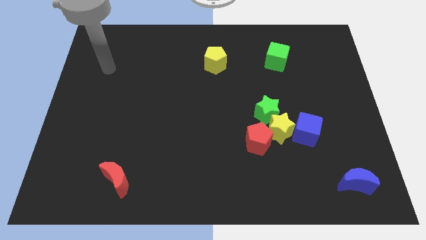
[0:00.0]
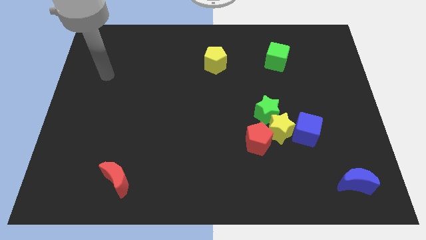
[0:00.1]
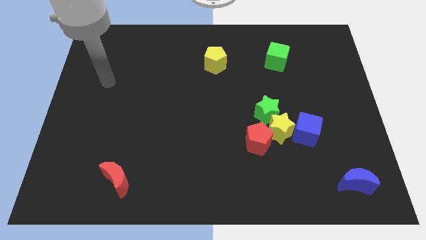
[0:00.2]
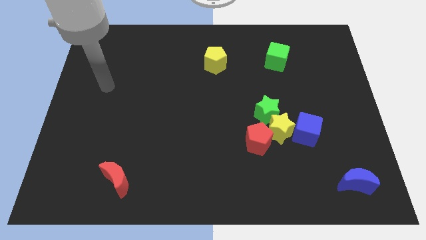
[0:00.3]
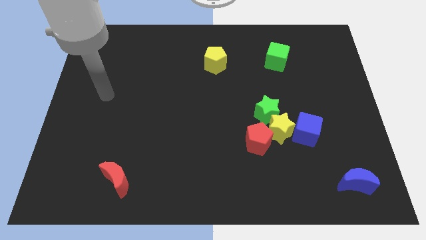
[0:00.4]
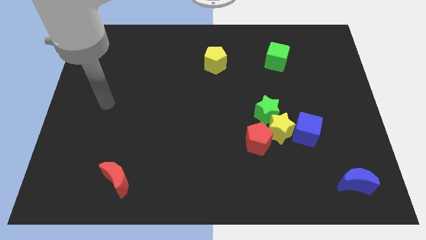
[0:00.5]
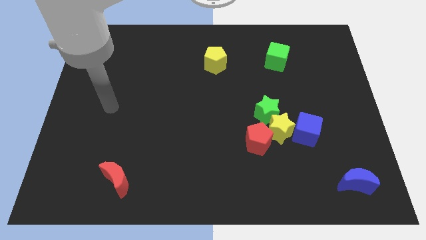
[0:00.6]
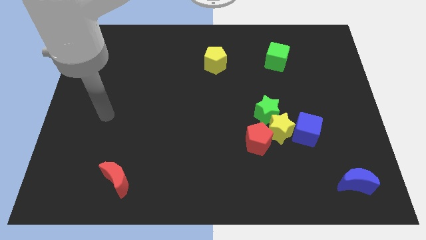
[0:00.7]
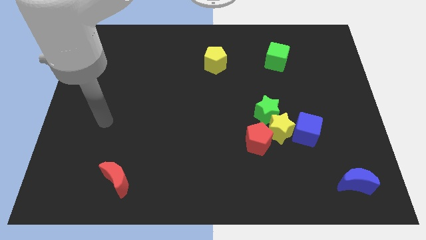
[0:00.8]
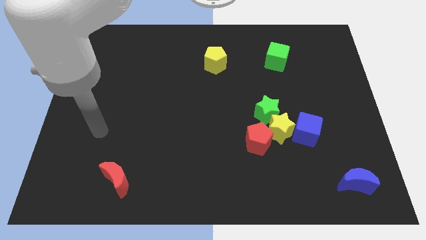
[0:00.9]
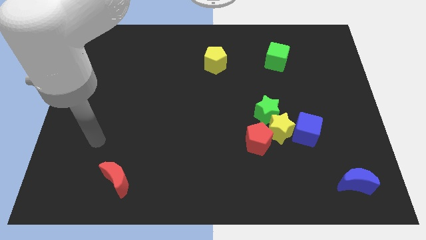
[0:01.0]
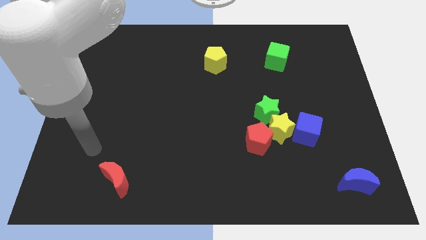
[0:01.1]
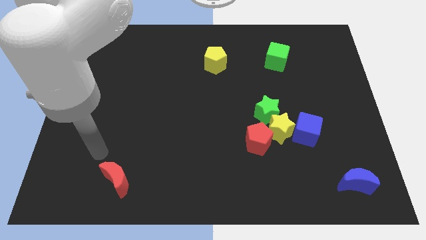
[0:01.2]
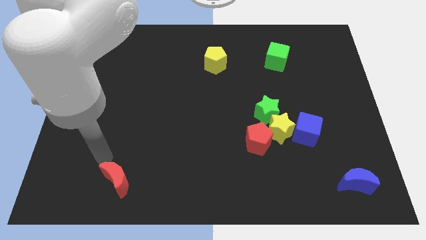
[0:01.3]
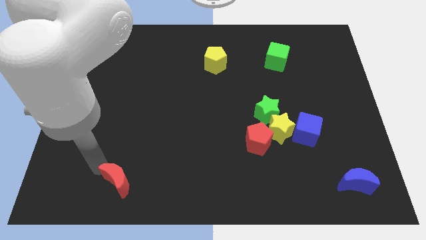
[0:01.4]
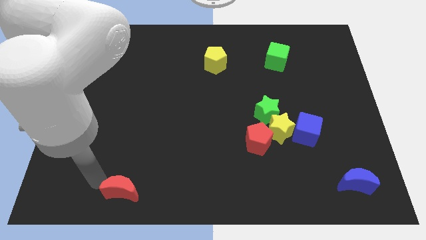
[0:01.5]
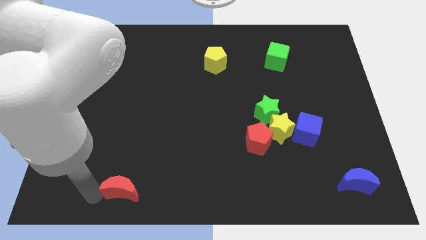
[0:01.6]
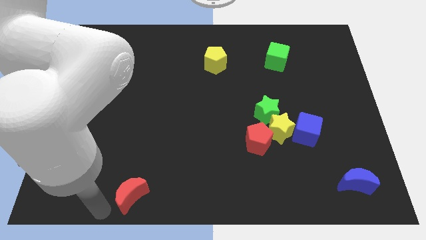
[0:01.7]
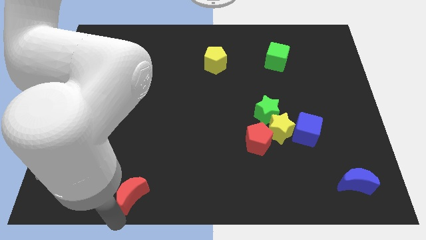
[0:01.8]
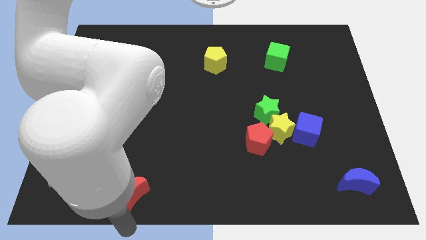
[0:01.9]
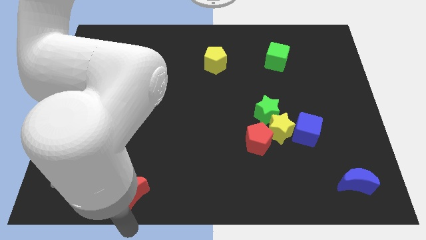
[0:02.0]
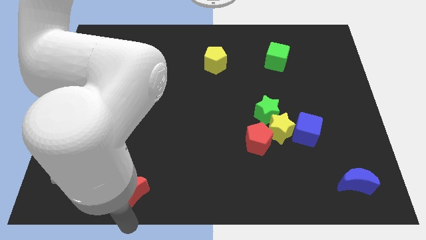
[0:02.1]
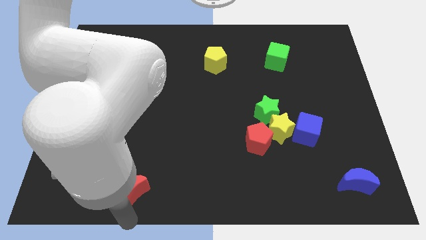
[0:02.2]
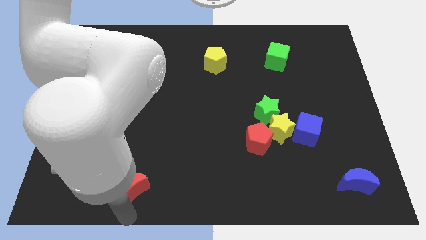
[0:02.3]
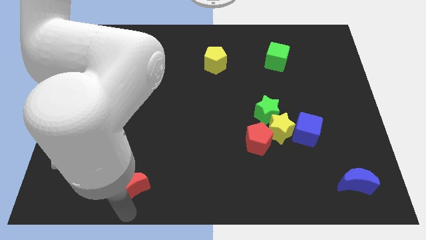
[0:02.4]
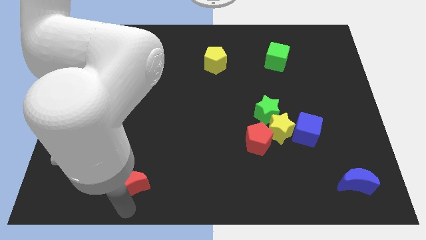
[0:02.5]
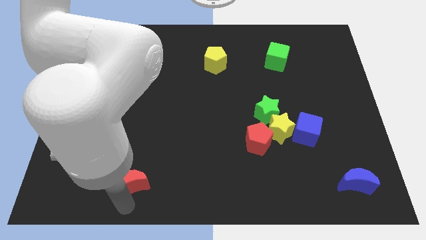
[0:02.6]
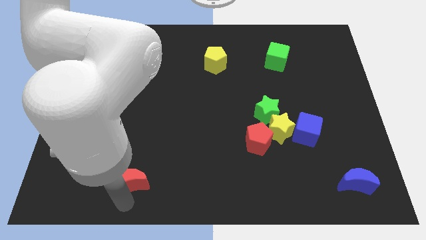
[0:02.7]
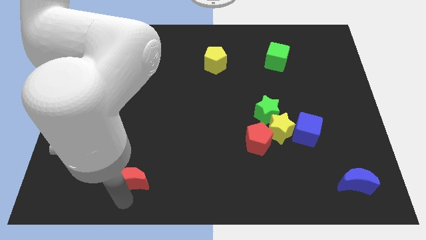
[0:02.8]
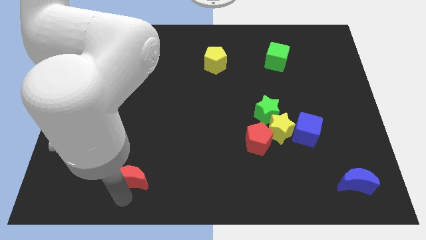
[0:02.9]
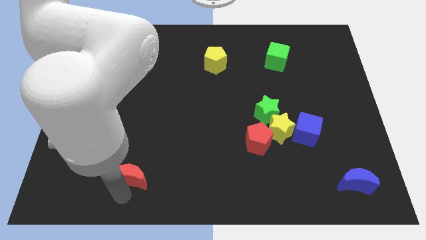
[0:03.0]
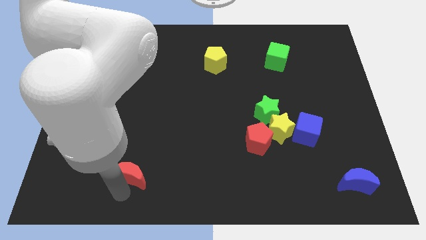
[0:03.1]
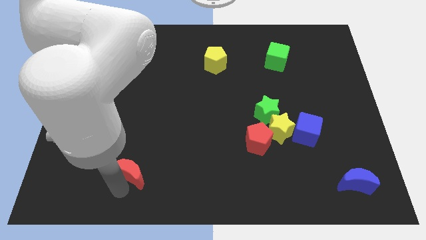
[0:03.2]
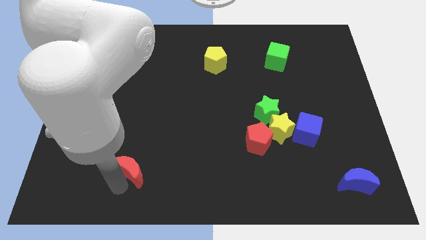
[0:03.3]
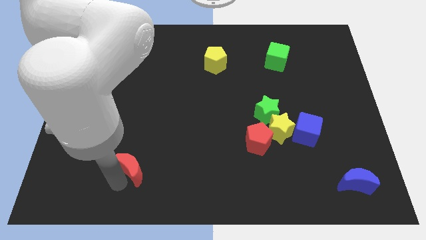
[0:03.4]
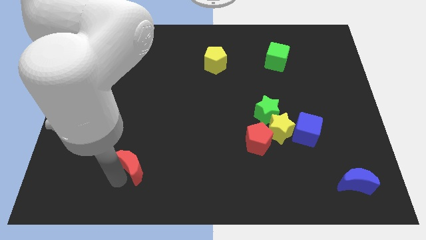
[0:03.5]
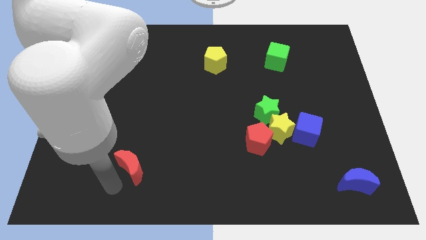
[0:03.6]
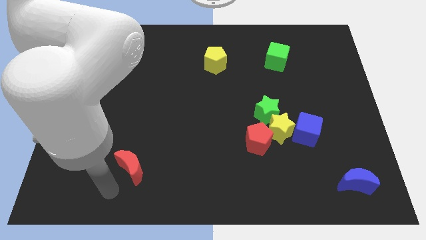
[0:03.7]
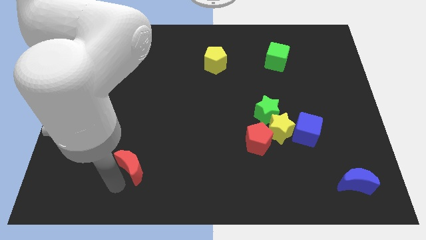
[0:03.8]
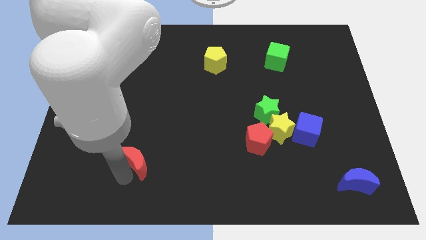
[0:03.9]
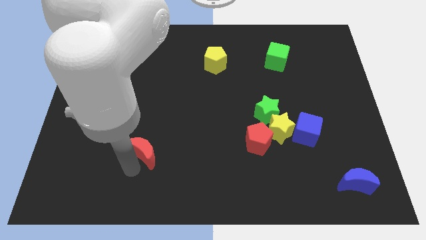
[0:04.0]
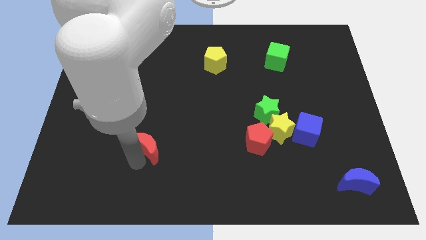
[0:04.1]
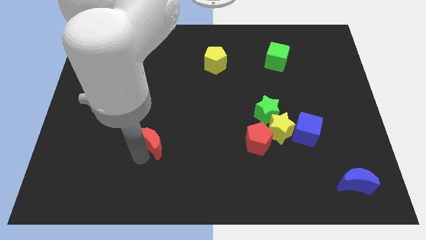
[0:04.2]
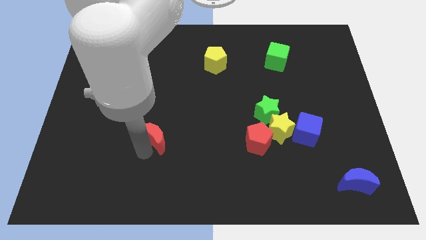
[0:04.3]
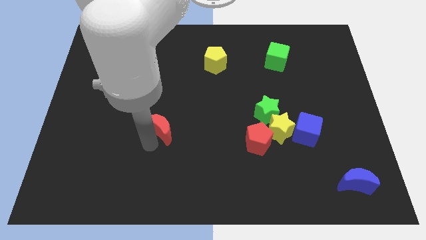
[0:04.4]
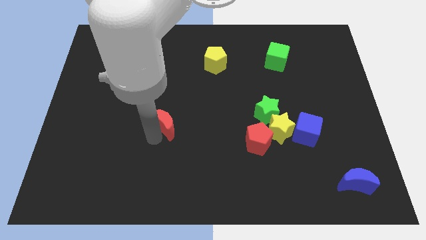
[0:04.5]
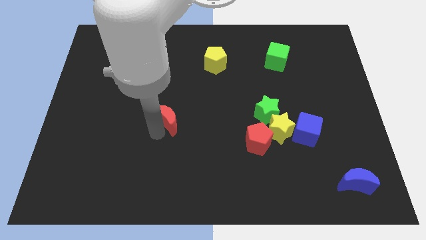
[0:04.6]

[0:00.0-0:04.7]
put the red moon to the center of the board

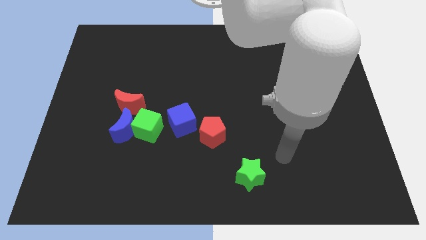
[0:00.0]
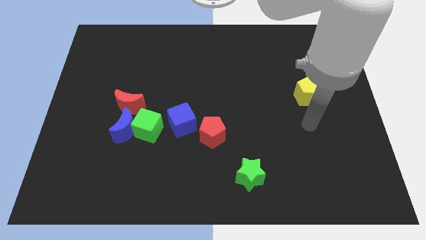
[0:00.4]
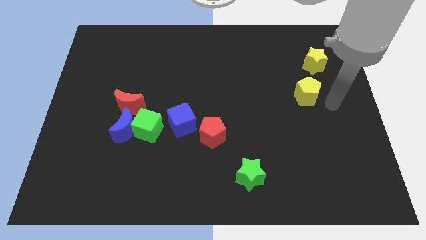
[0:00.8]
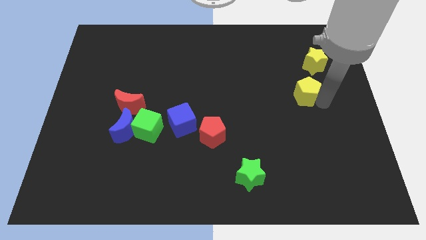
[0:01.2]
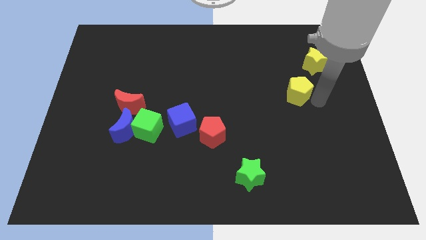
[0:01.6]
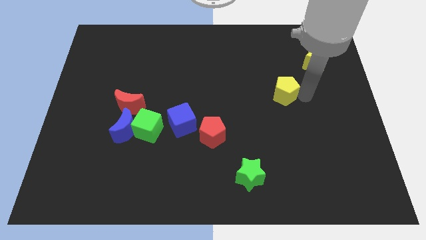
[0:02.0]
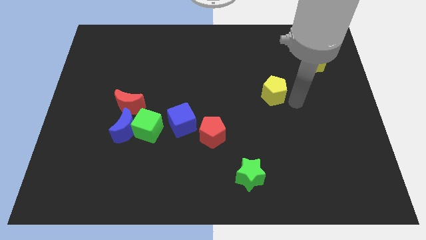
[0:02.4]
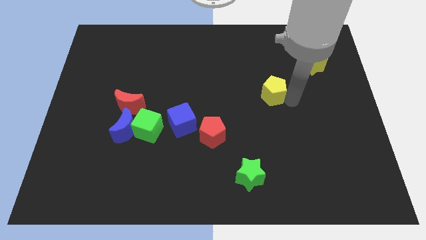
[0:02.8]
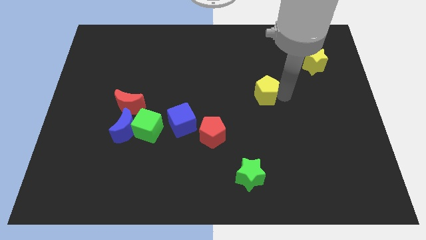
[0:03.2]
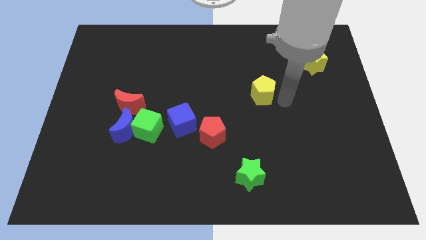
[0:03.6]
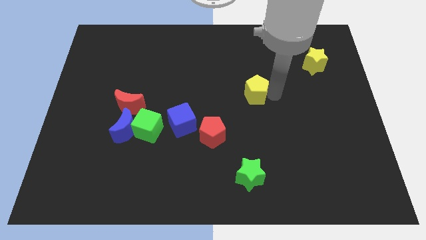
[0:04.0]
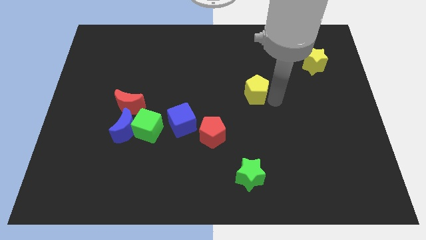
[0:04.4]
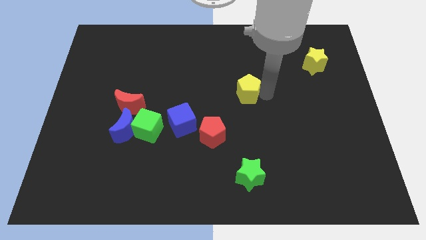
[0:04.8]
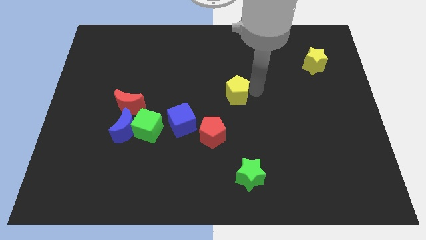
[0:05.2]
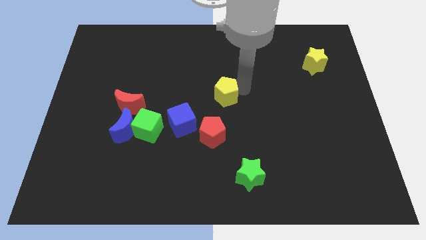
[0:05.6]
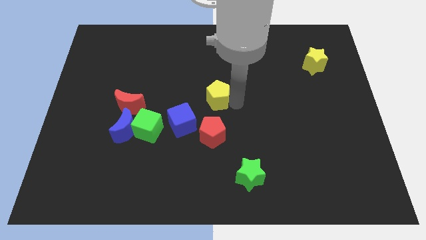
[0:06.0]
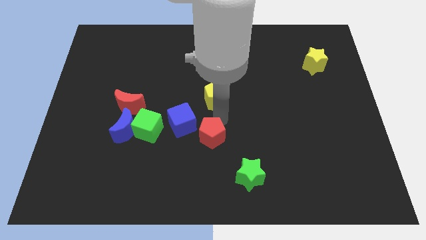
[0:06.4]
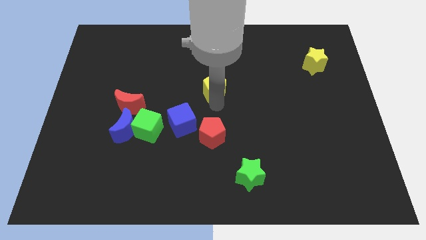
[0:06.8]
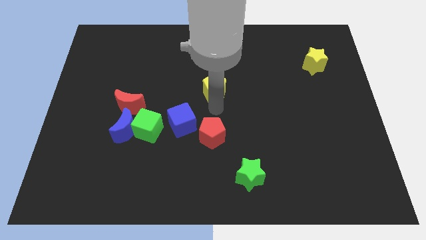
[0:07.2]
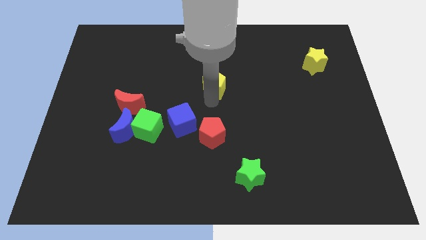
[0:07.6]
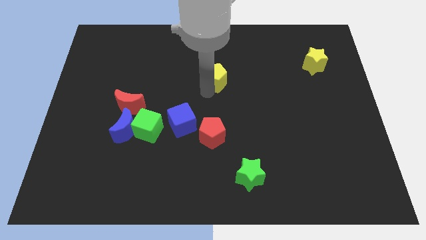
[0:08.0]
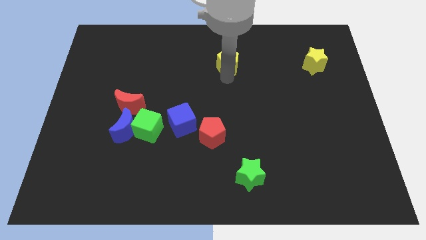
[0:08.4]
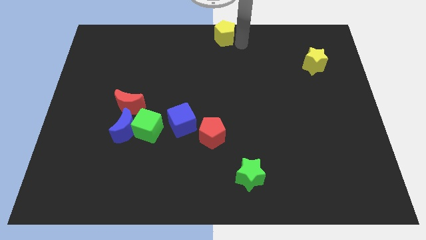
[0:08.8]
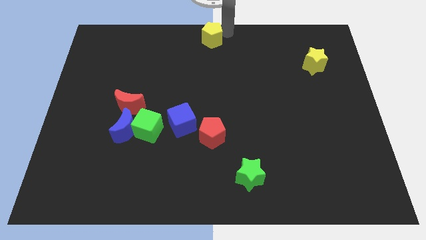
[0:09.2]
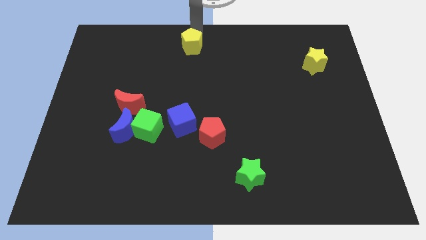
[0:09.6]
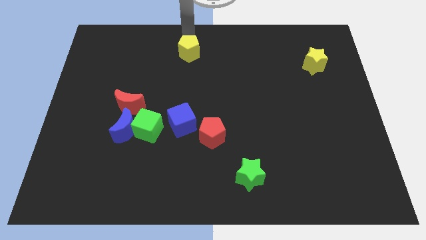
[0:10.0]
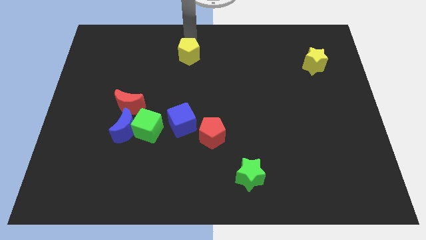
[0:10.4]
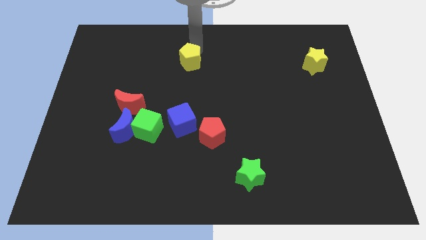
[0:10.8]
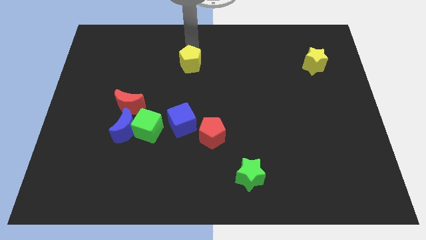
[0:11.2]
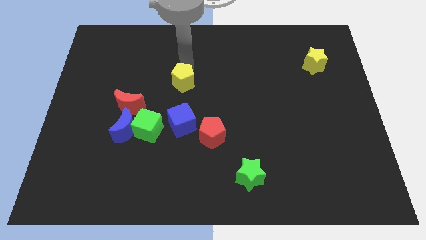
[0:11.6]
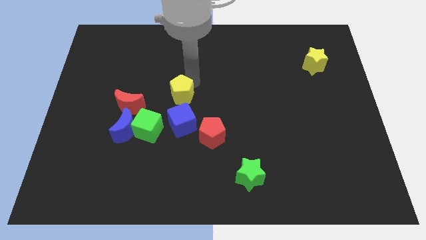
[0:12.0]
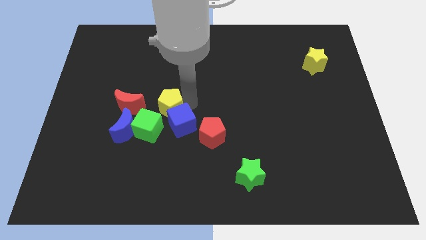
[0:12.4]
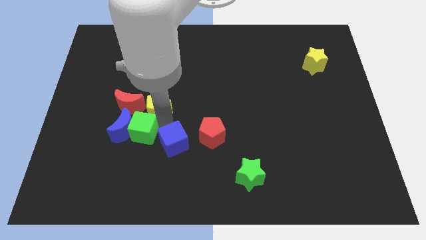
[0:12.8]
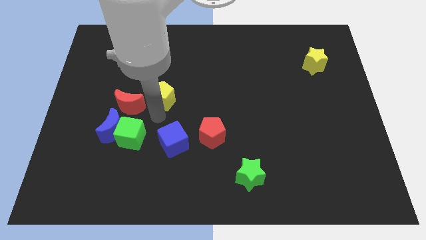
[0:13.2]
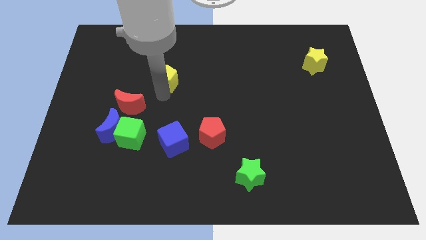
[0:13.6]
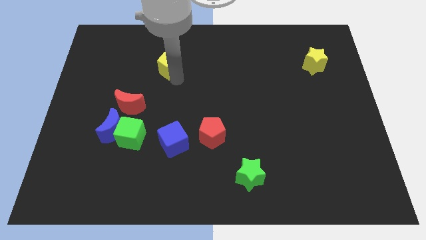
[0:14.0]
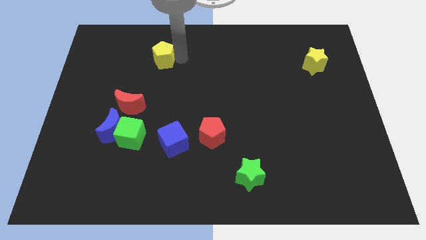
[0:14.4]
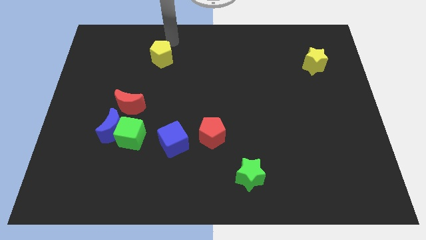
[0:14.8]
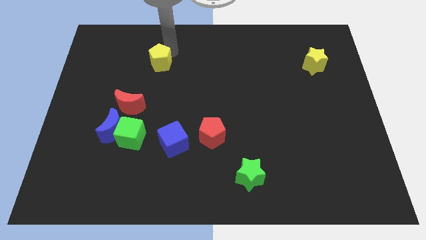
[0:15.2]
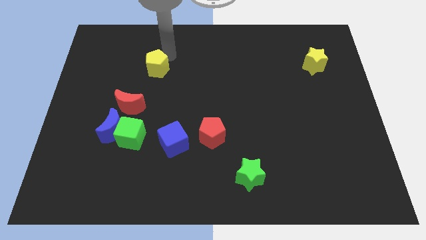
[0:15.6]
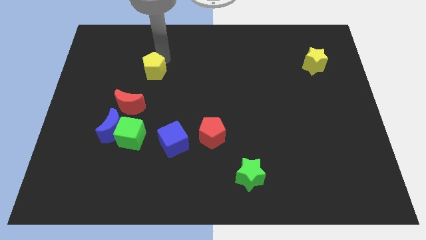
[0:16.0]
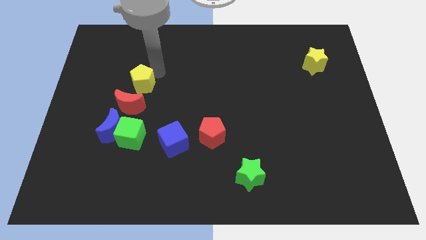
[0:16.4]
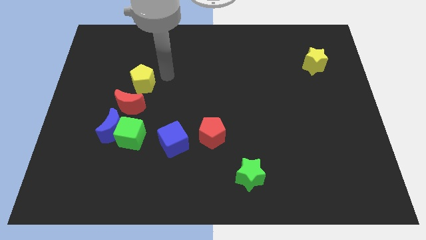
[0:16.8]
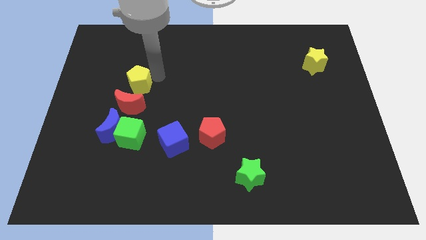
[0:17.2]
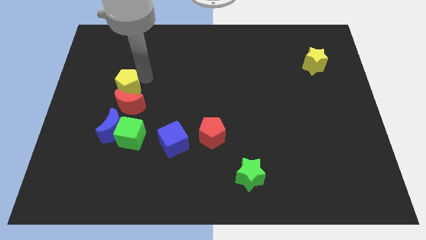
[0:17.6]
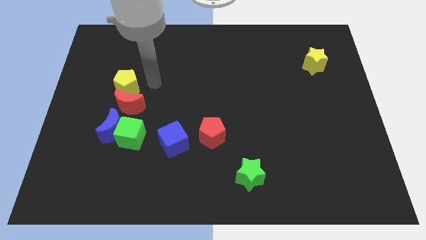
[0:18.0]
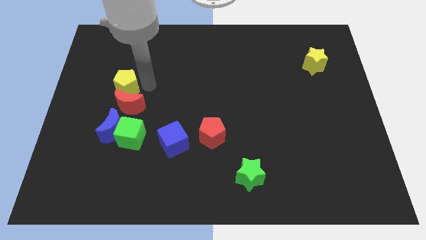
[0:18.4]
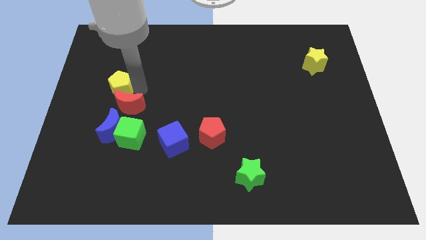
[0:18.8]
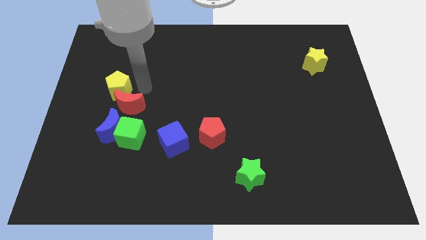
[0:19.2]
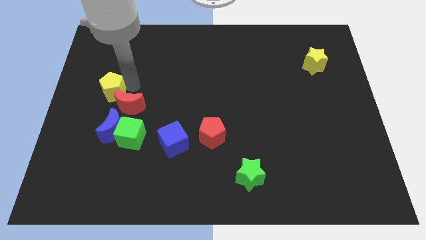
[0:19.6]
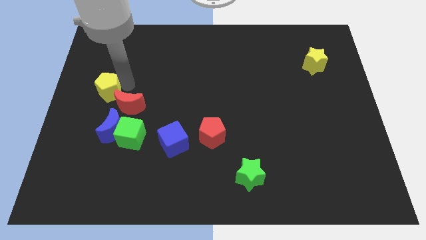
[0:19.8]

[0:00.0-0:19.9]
push the yellow pentagon to the center left
